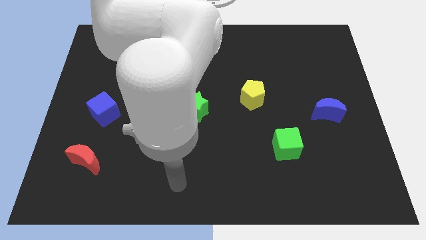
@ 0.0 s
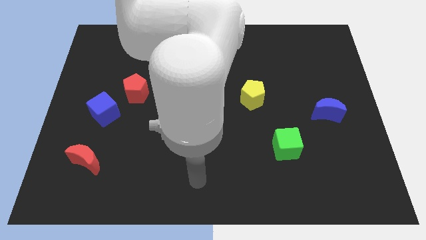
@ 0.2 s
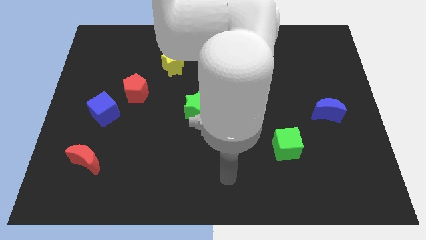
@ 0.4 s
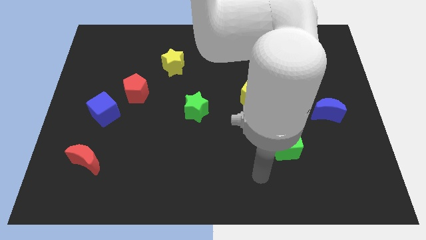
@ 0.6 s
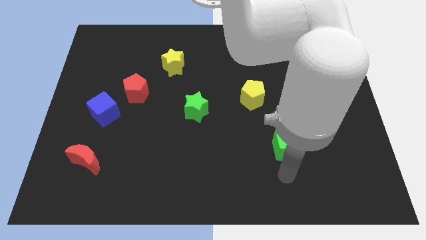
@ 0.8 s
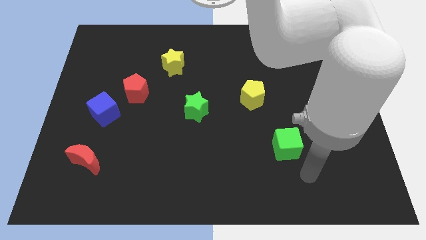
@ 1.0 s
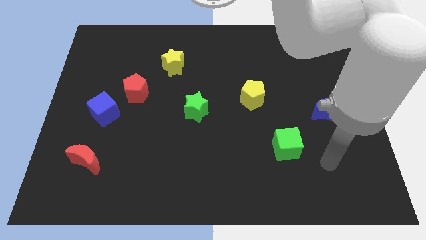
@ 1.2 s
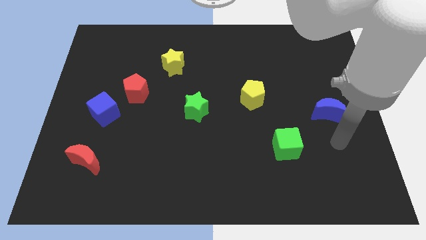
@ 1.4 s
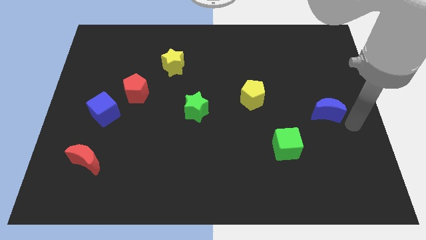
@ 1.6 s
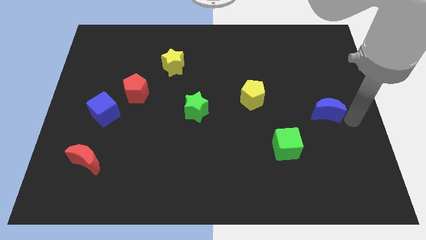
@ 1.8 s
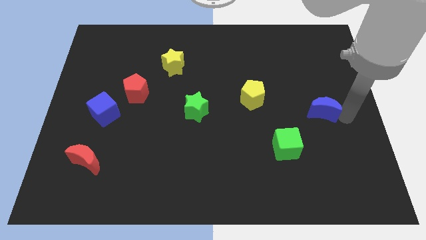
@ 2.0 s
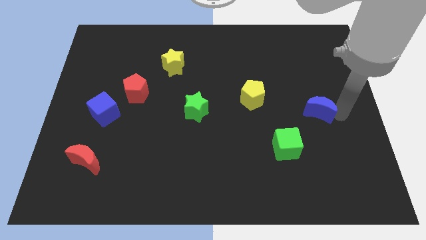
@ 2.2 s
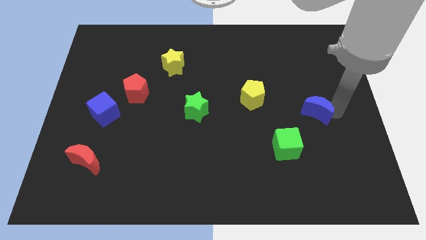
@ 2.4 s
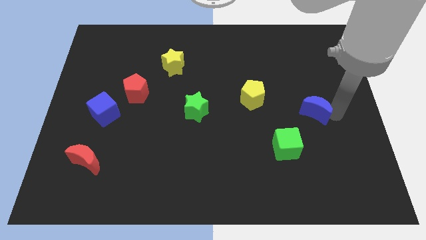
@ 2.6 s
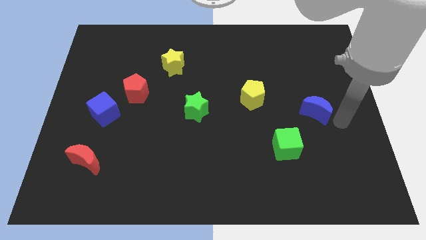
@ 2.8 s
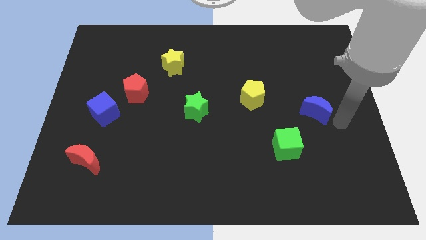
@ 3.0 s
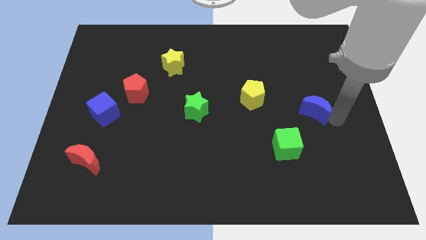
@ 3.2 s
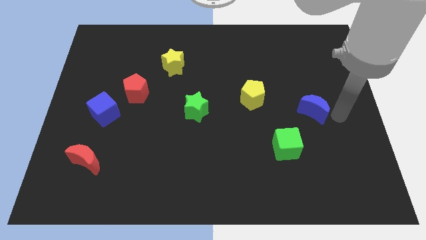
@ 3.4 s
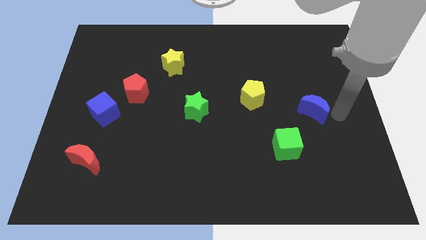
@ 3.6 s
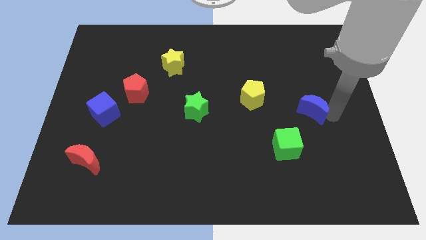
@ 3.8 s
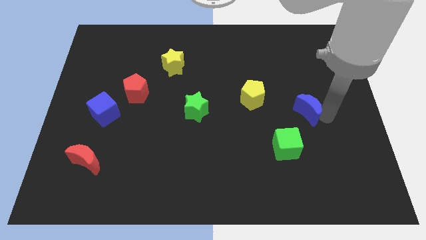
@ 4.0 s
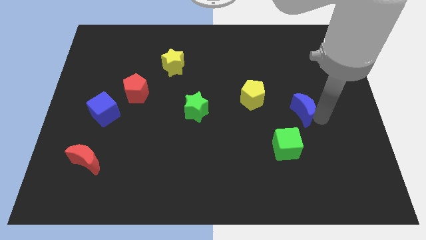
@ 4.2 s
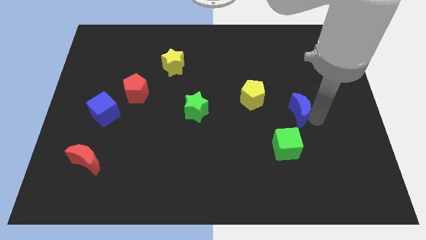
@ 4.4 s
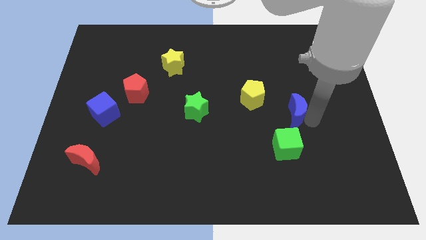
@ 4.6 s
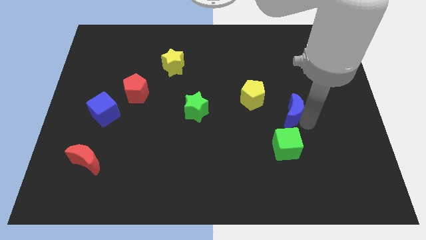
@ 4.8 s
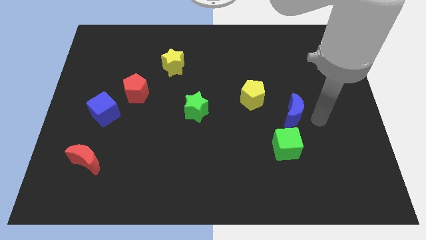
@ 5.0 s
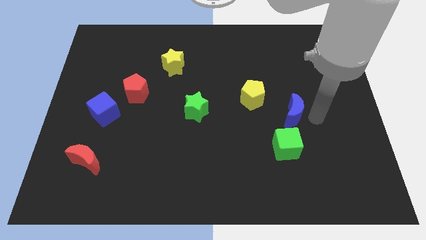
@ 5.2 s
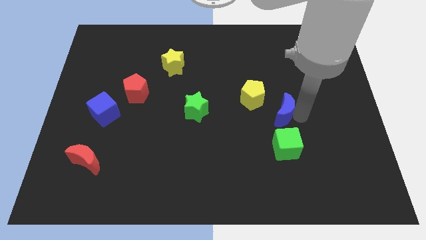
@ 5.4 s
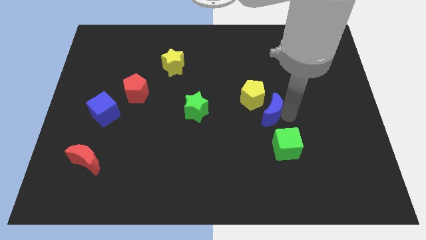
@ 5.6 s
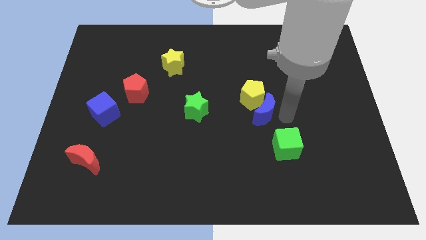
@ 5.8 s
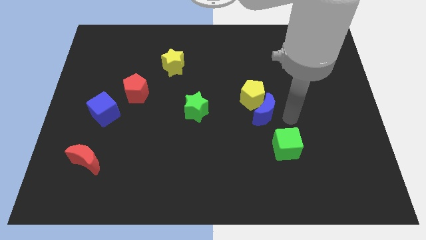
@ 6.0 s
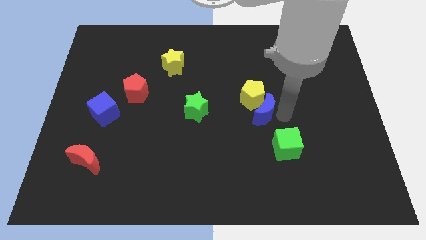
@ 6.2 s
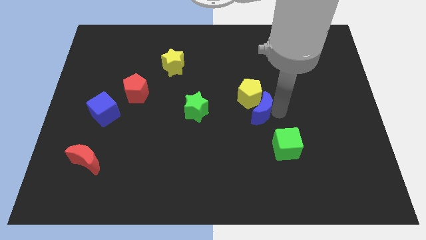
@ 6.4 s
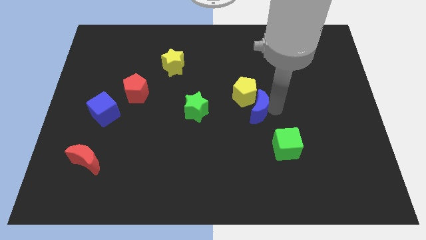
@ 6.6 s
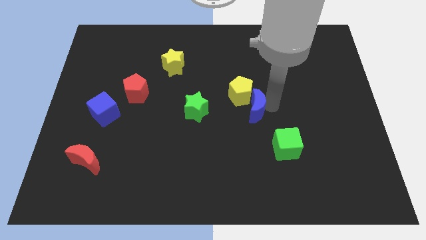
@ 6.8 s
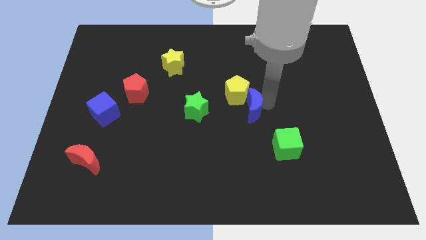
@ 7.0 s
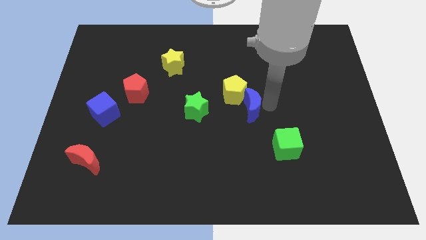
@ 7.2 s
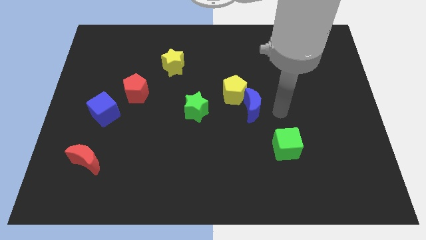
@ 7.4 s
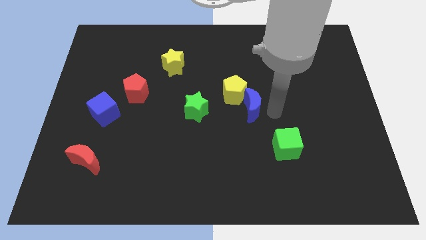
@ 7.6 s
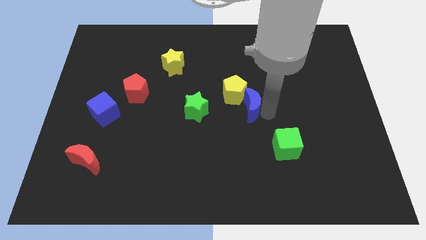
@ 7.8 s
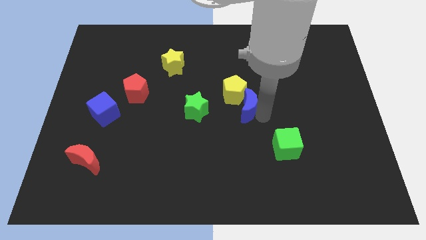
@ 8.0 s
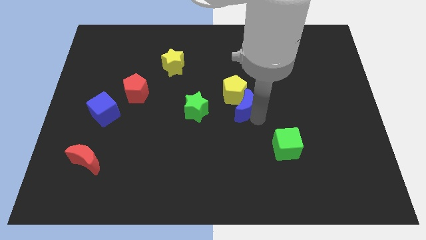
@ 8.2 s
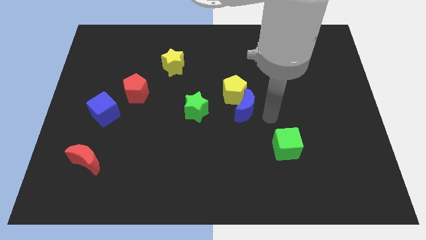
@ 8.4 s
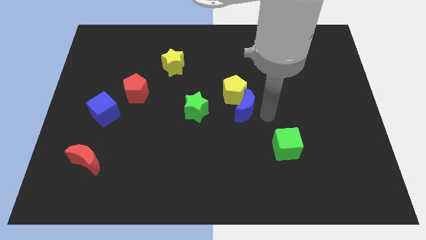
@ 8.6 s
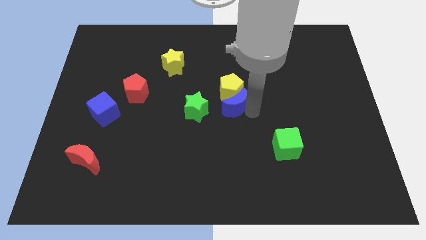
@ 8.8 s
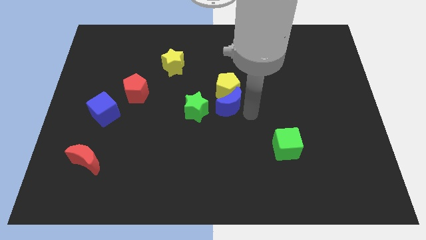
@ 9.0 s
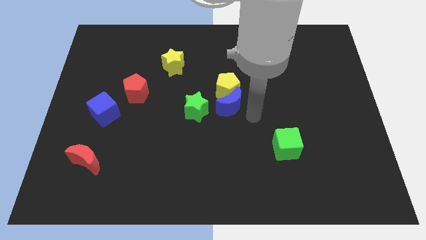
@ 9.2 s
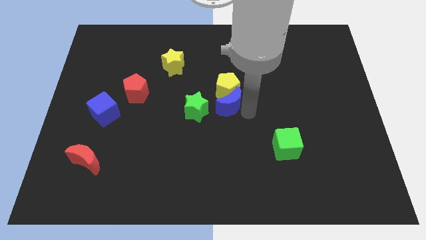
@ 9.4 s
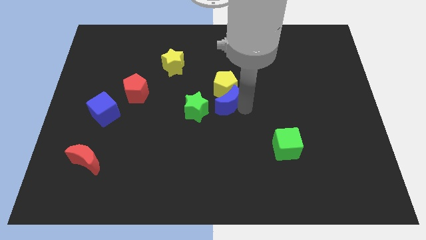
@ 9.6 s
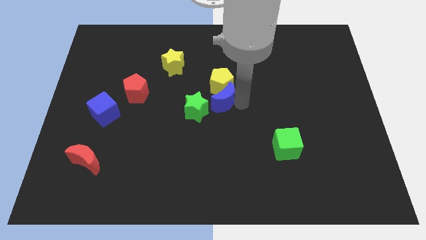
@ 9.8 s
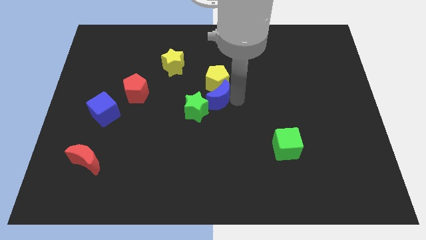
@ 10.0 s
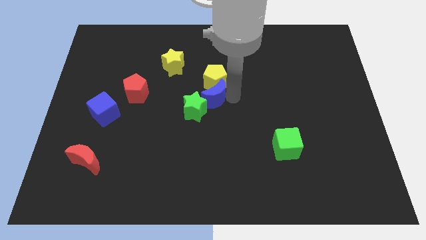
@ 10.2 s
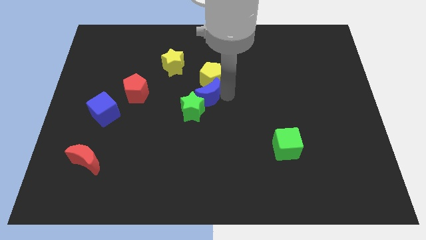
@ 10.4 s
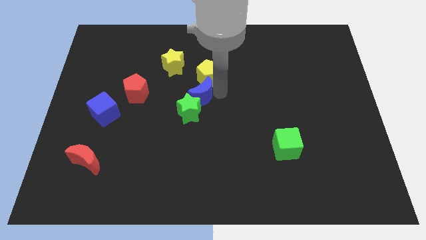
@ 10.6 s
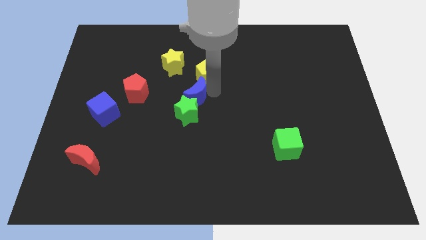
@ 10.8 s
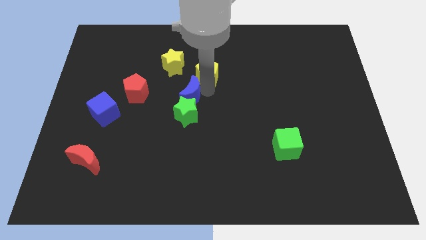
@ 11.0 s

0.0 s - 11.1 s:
push the blue moon to the bottom side of the yellow star

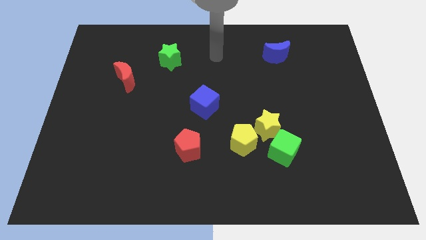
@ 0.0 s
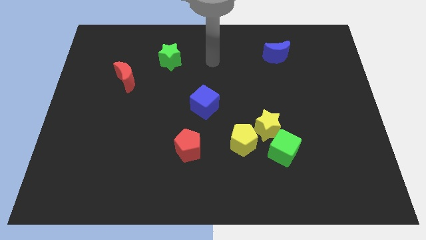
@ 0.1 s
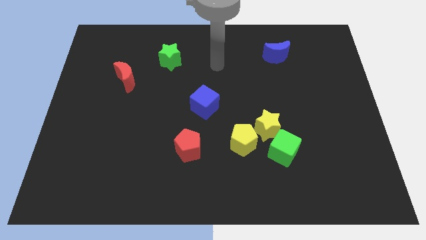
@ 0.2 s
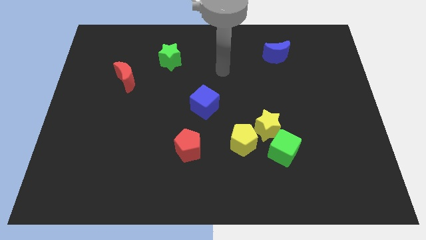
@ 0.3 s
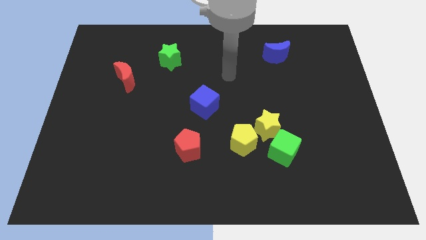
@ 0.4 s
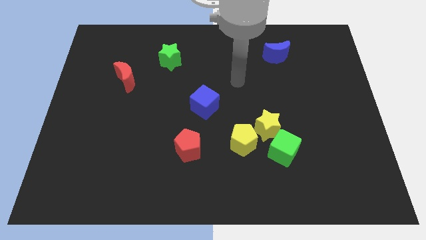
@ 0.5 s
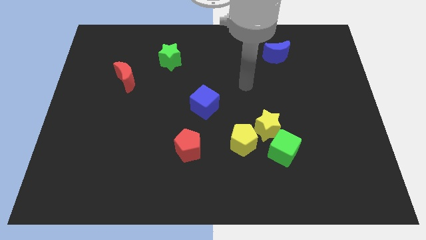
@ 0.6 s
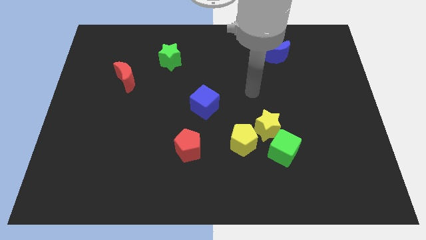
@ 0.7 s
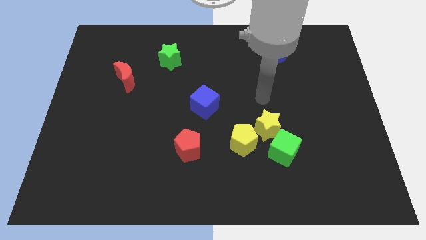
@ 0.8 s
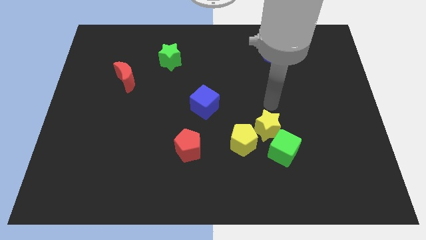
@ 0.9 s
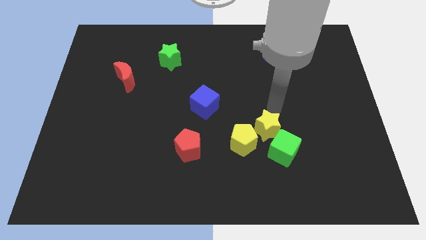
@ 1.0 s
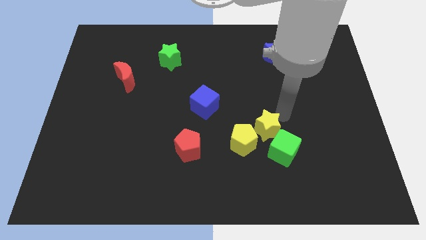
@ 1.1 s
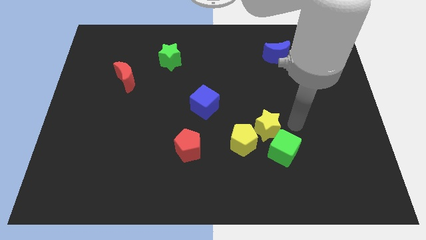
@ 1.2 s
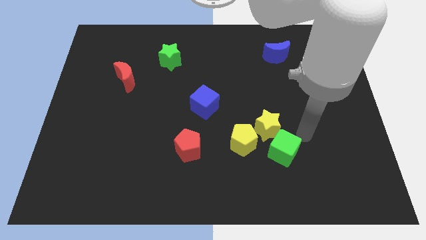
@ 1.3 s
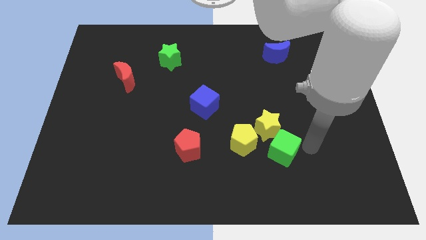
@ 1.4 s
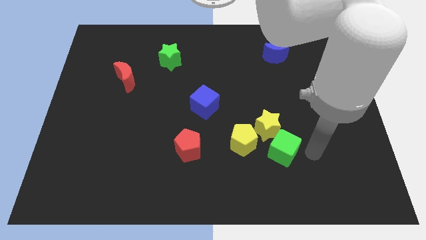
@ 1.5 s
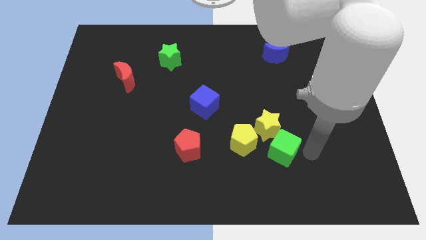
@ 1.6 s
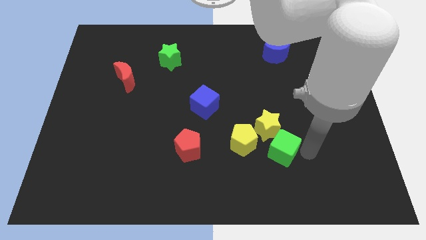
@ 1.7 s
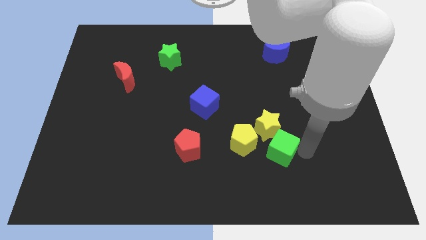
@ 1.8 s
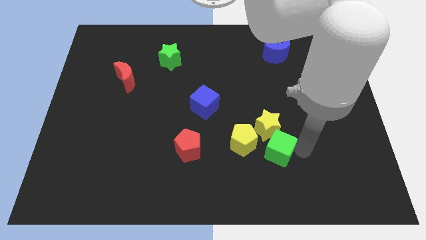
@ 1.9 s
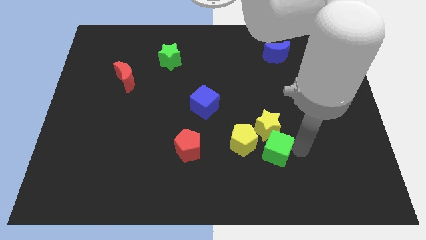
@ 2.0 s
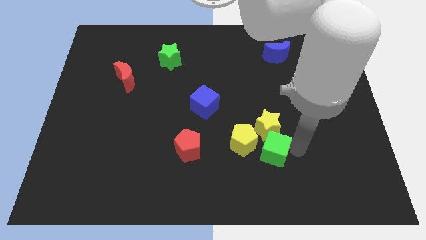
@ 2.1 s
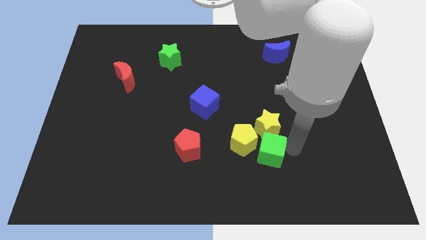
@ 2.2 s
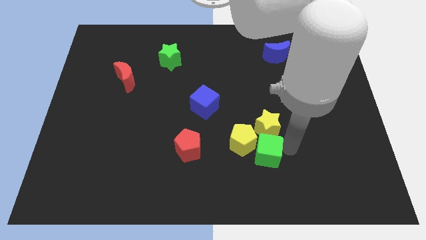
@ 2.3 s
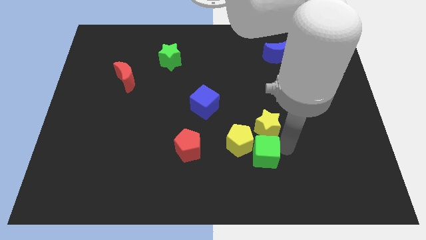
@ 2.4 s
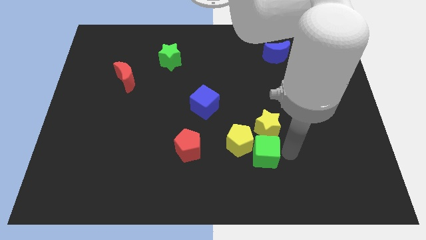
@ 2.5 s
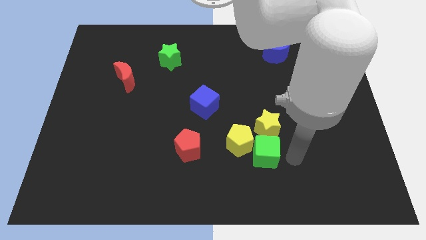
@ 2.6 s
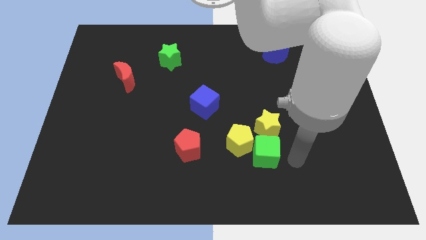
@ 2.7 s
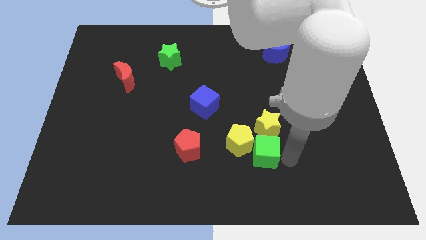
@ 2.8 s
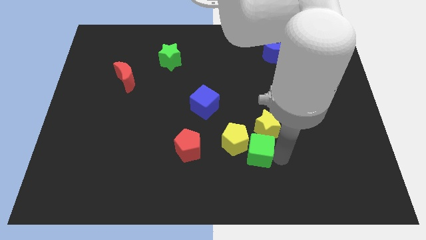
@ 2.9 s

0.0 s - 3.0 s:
put the green cube to the right of the red pentagon
